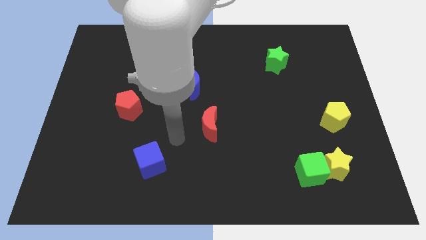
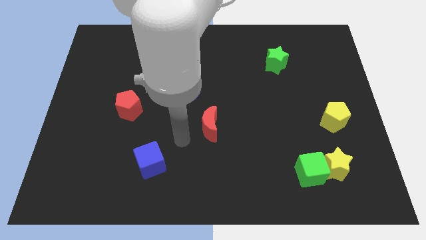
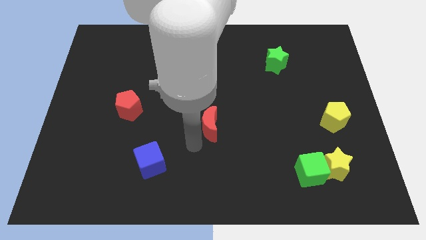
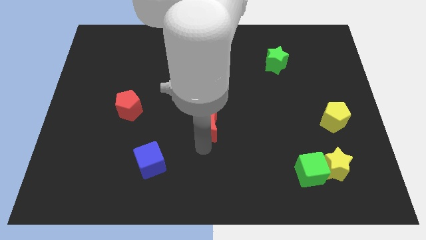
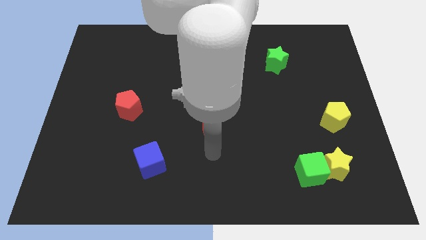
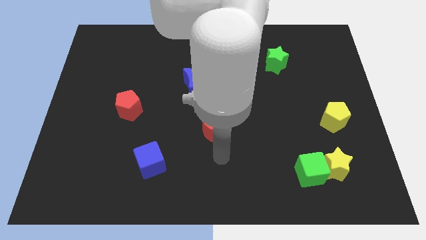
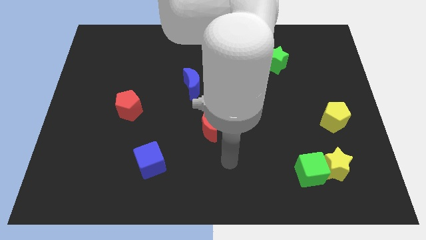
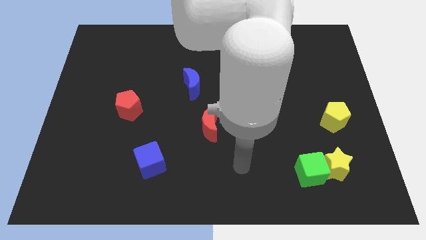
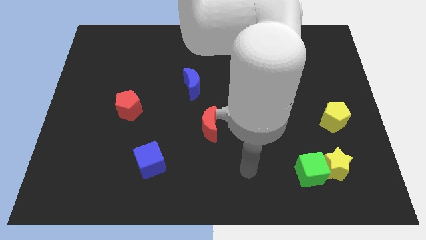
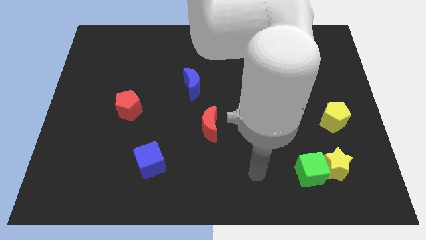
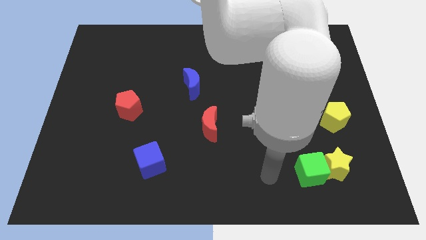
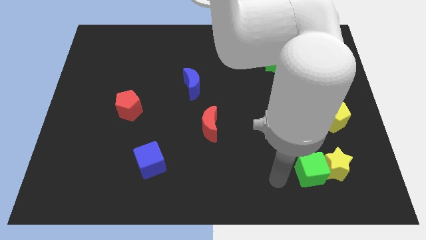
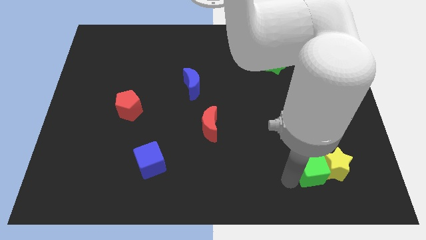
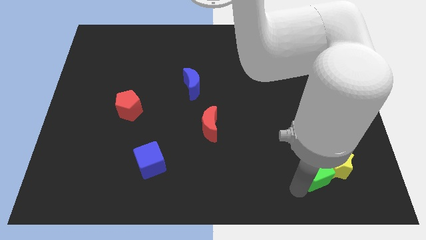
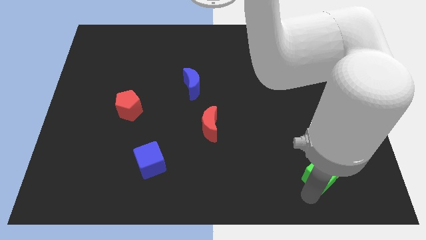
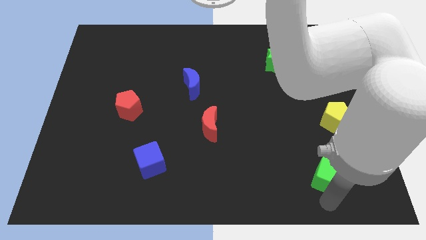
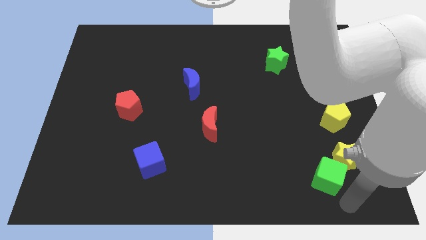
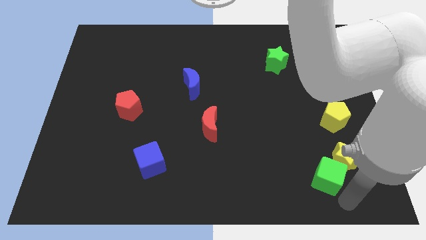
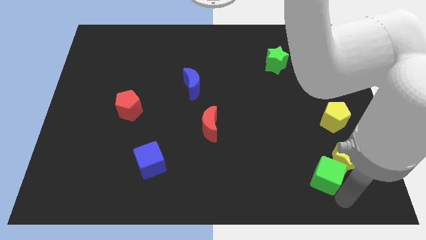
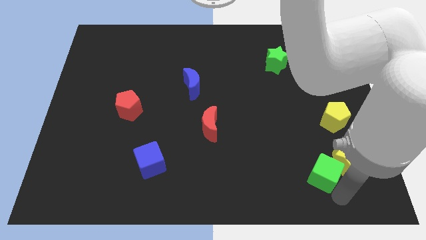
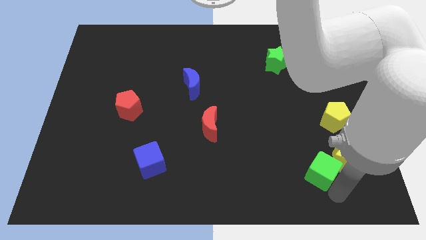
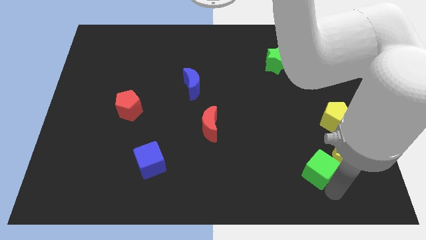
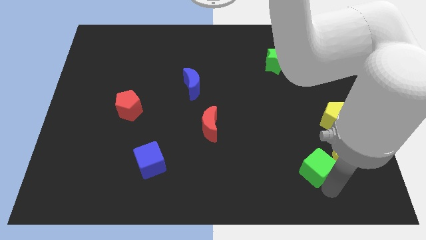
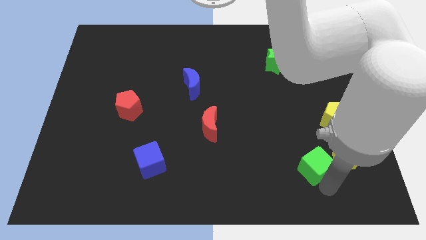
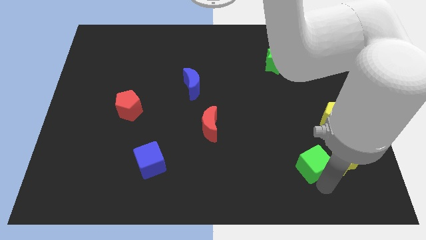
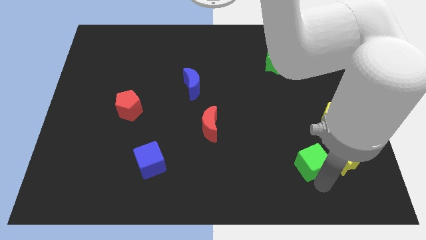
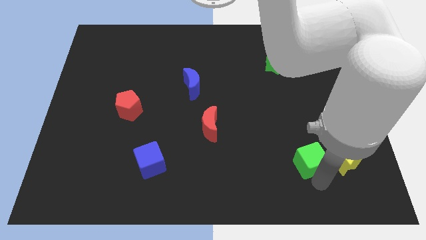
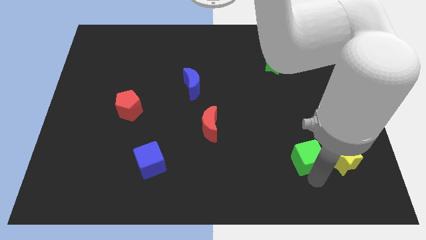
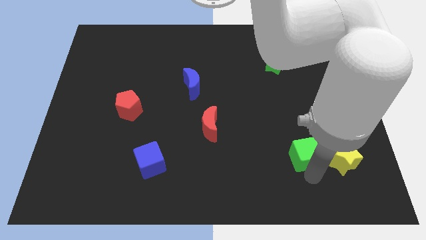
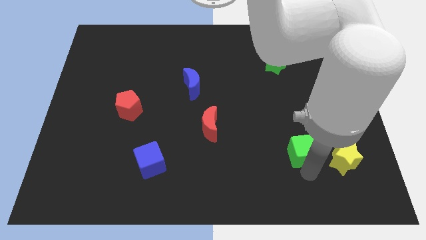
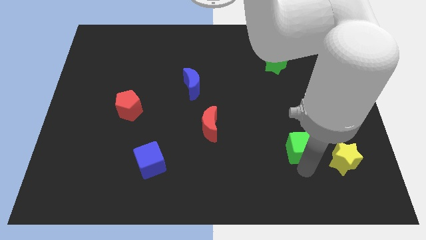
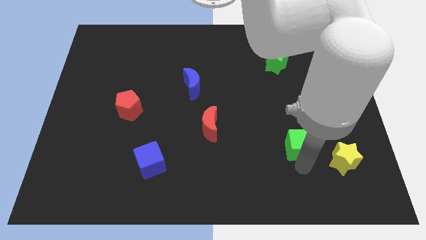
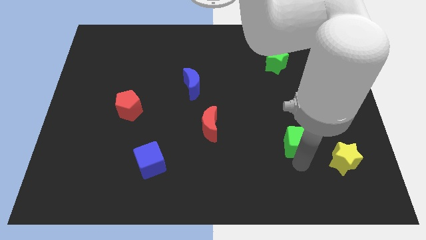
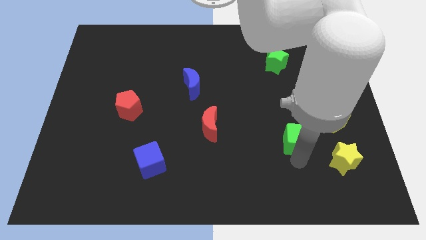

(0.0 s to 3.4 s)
slide the green cube slightly upwards

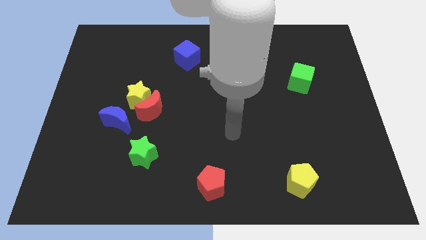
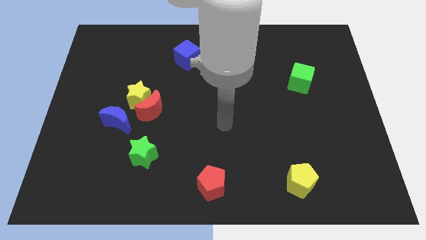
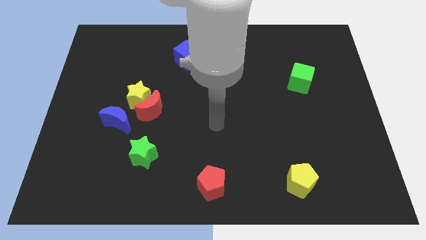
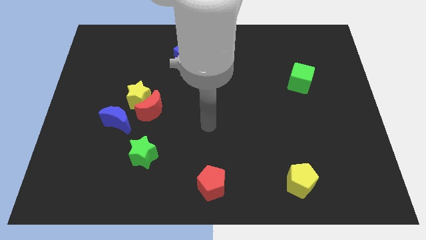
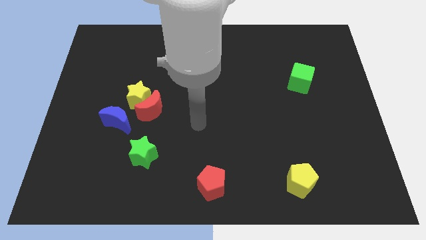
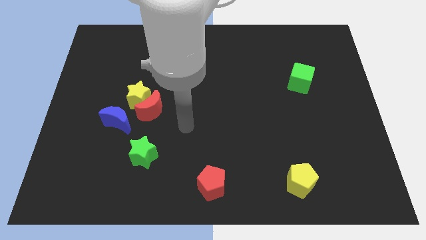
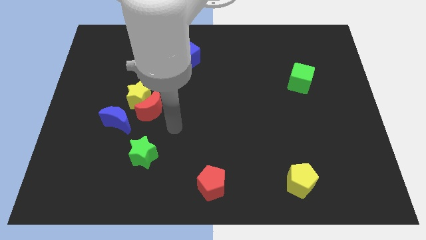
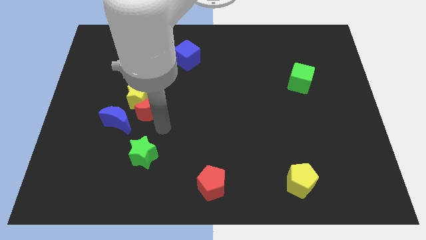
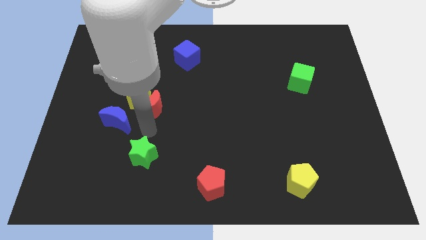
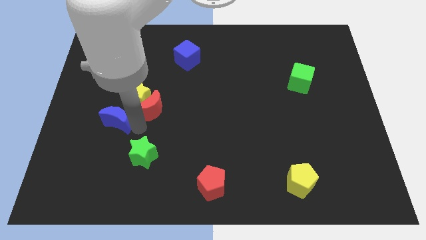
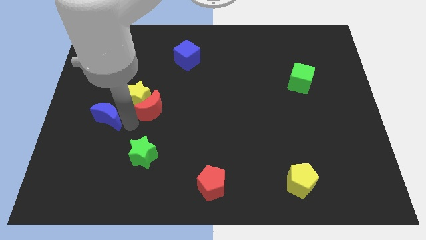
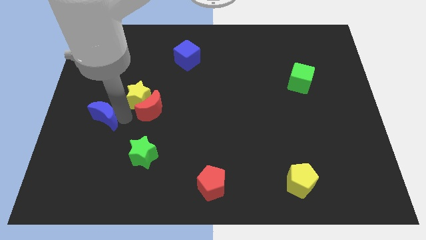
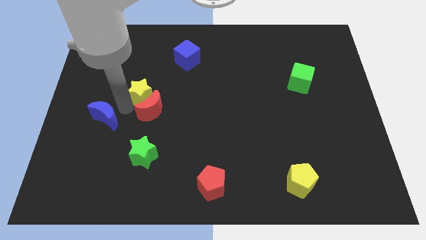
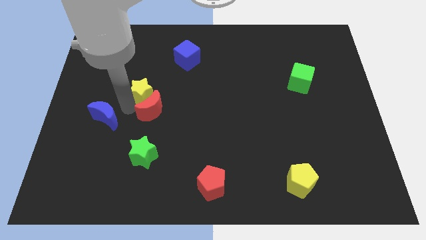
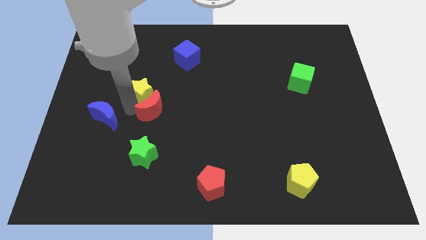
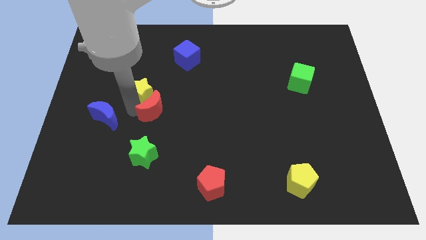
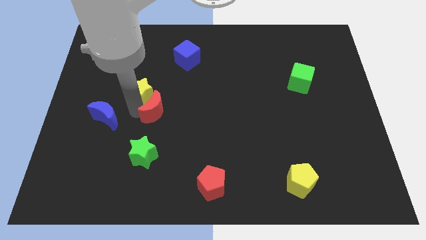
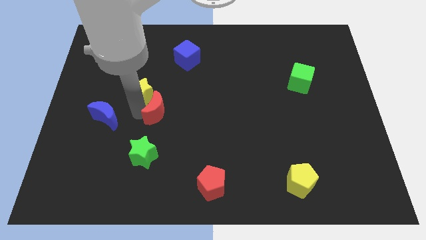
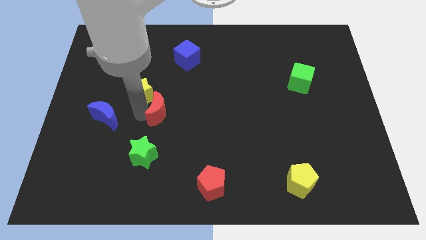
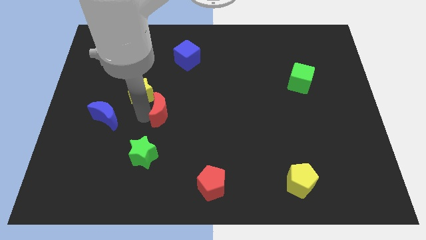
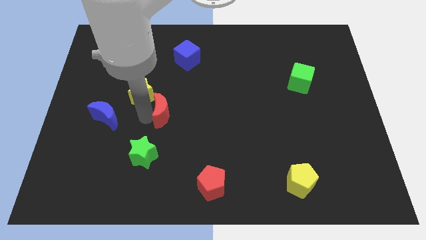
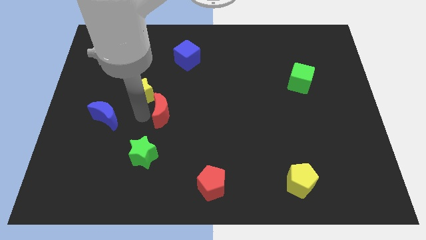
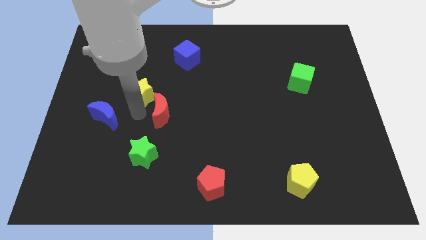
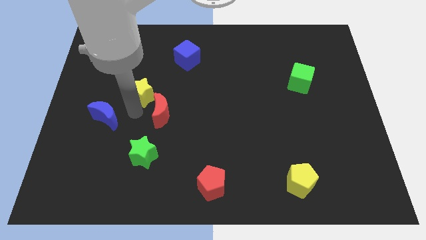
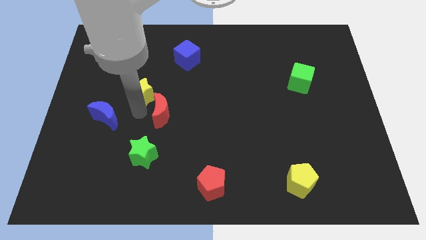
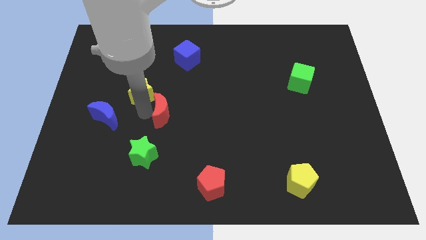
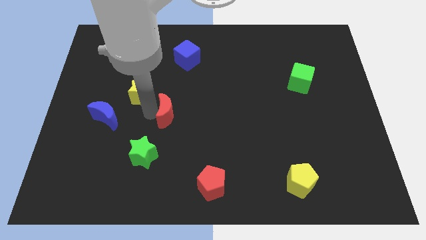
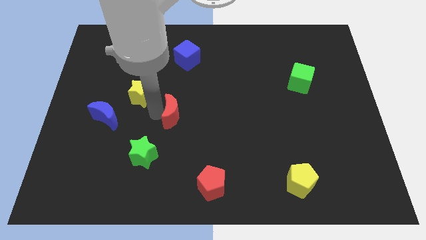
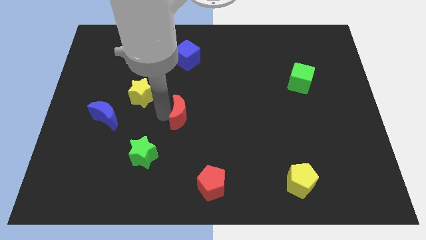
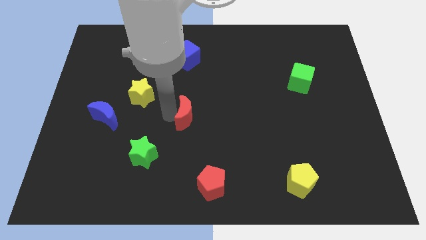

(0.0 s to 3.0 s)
push the red moon right a little bit

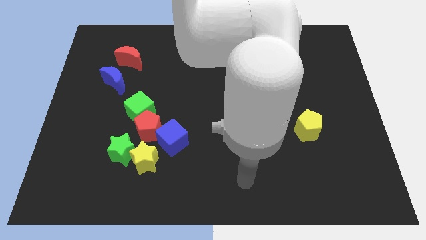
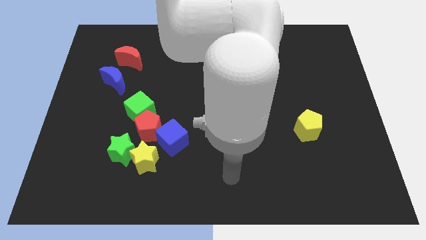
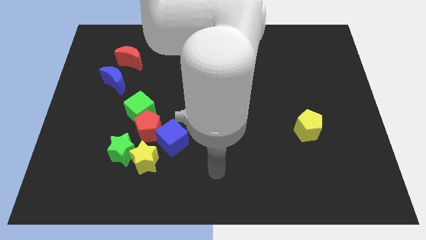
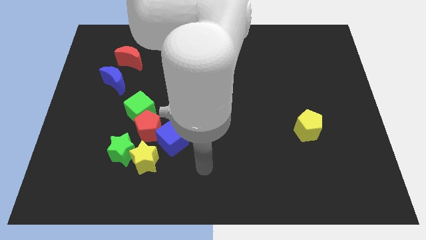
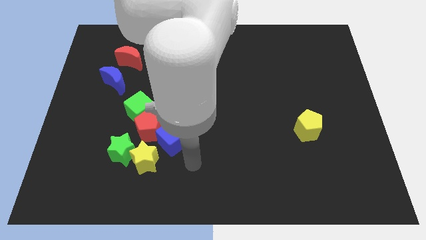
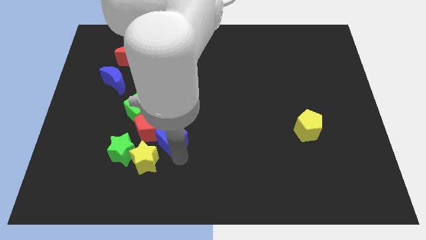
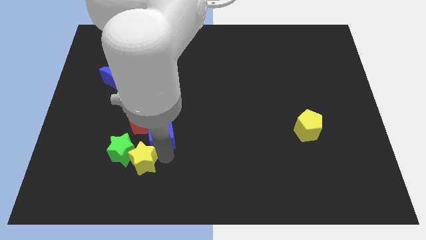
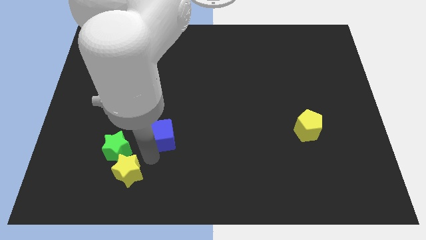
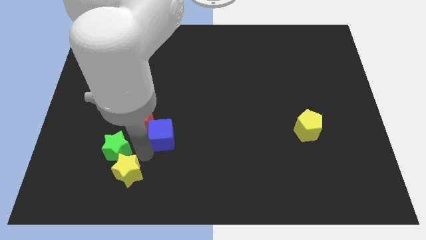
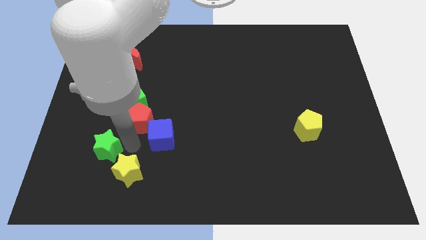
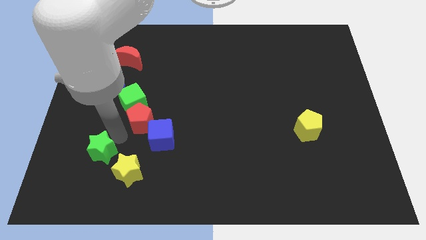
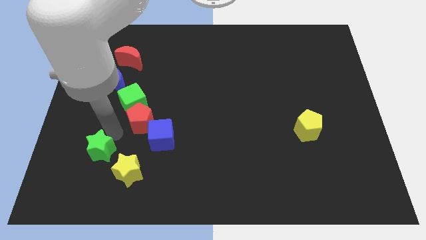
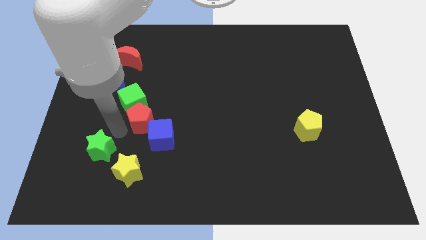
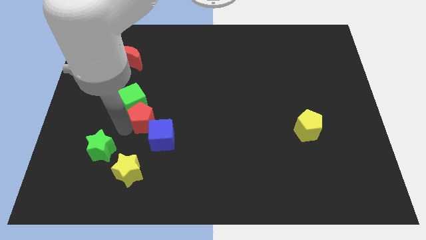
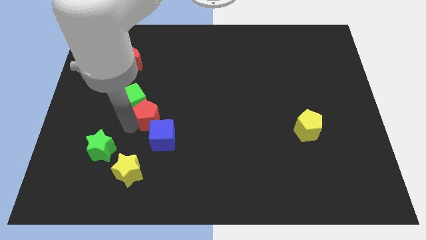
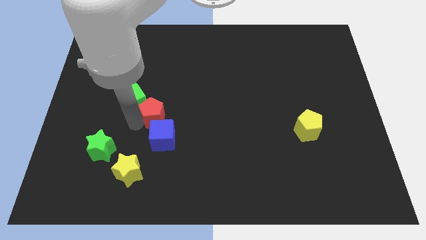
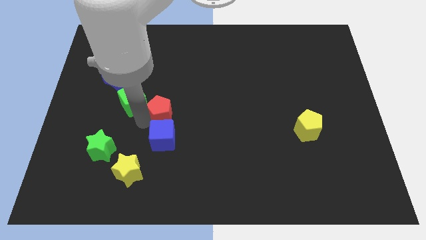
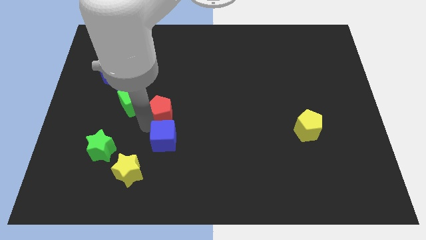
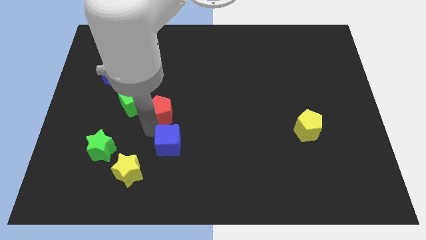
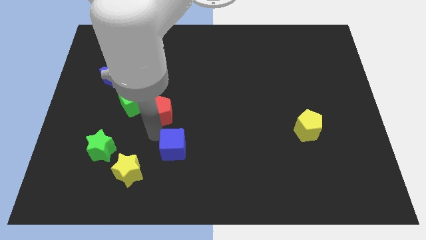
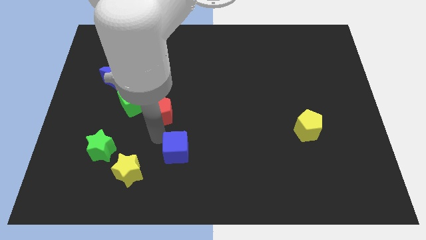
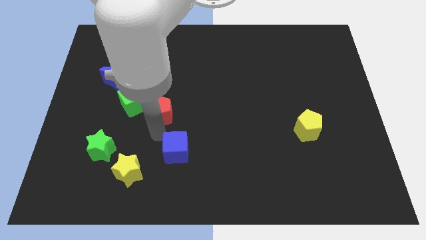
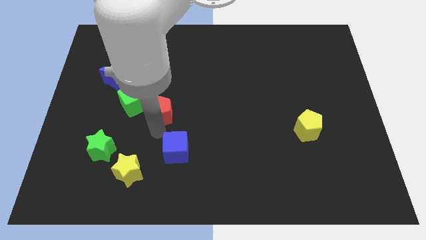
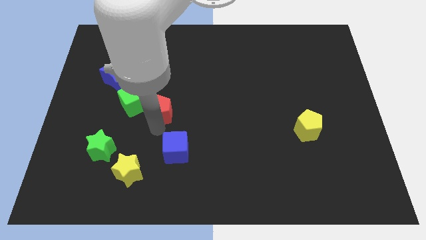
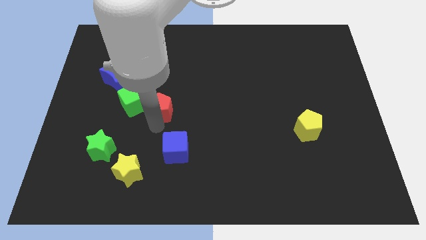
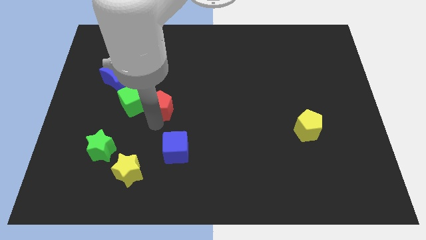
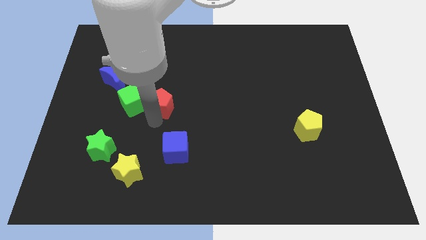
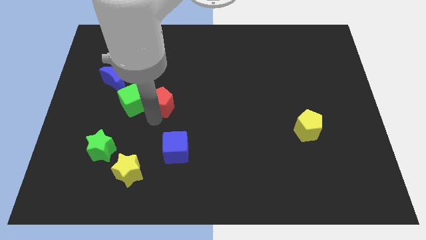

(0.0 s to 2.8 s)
push the red pentagon upwards a little bit
